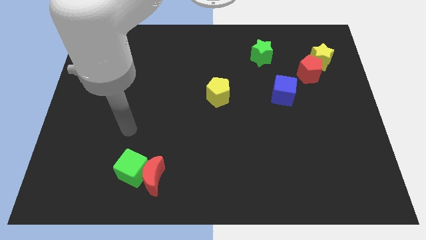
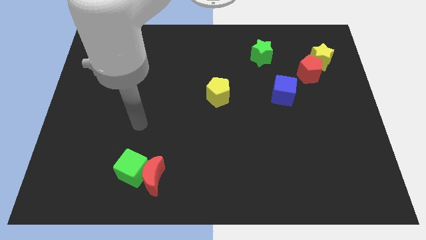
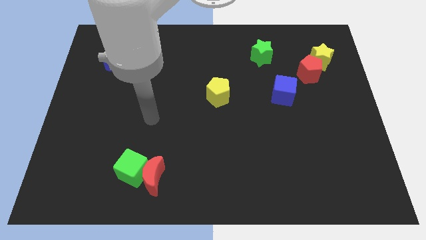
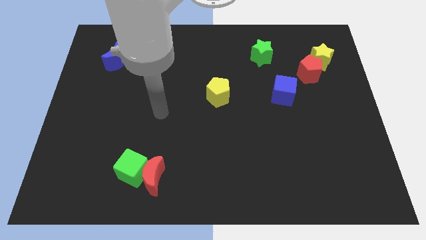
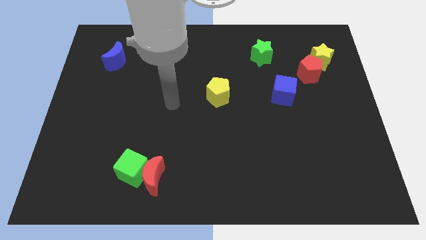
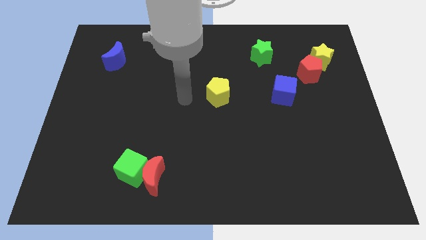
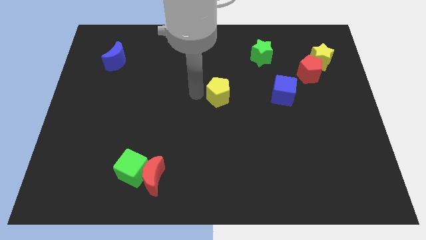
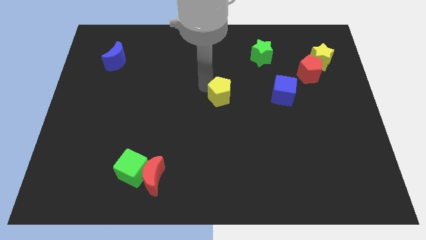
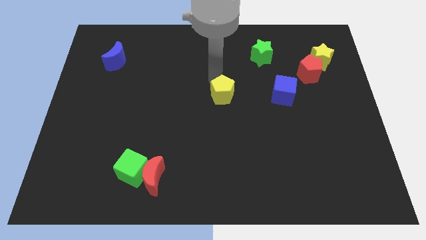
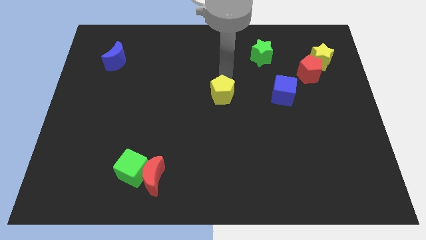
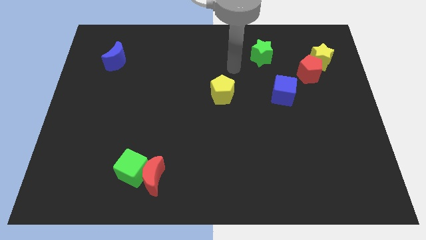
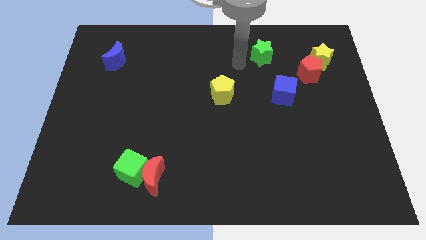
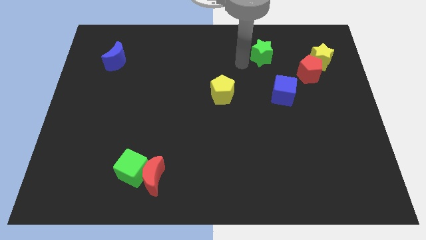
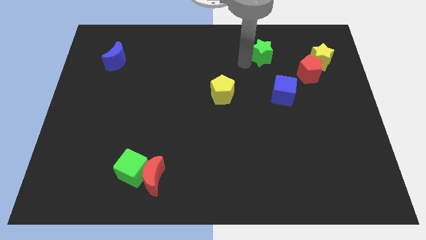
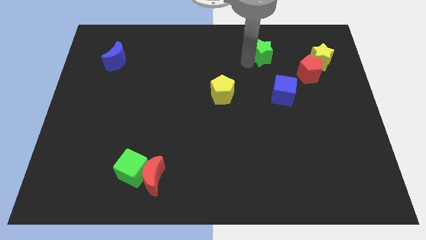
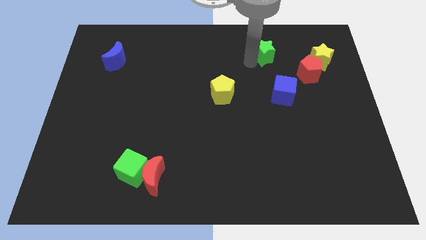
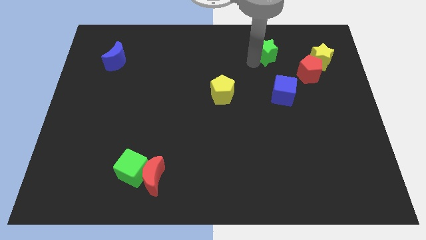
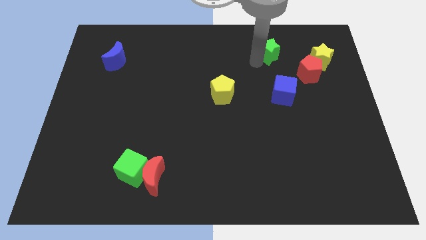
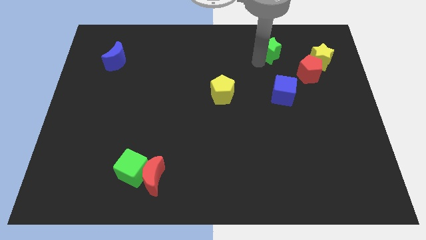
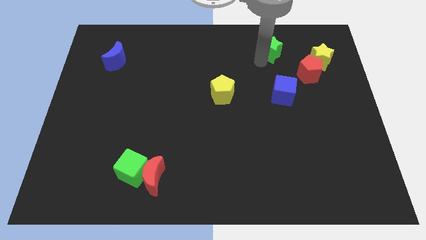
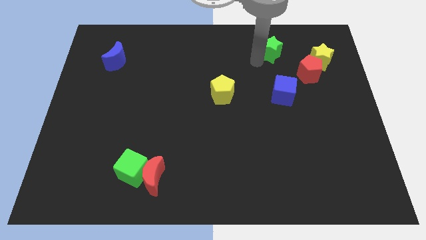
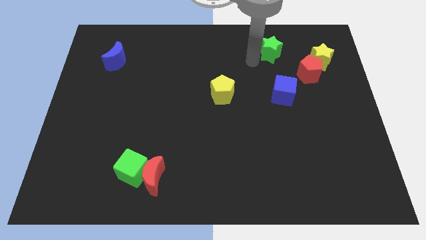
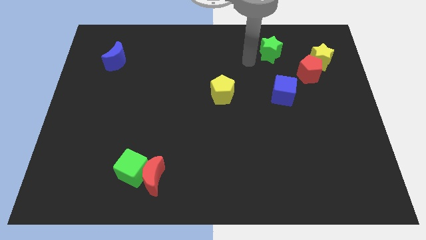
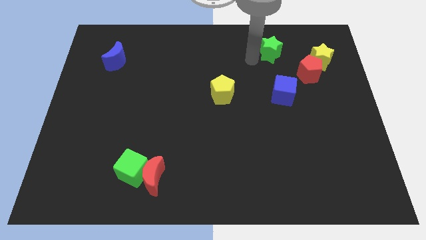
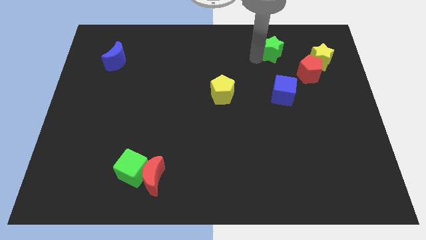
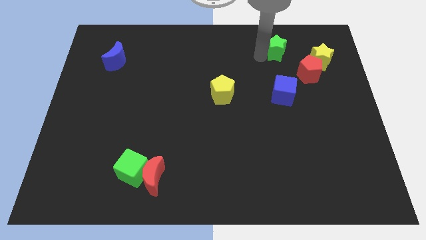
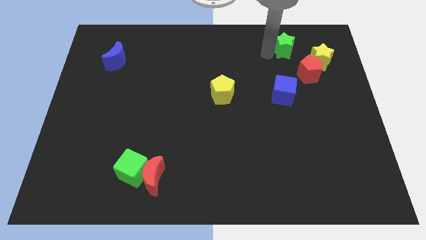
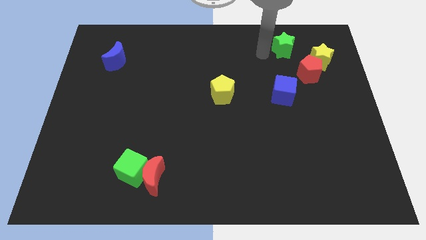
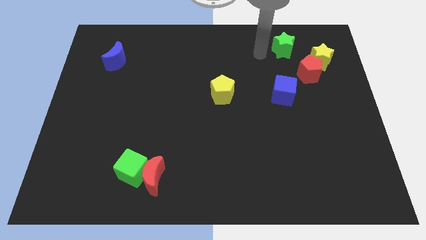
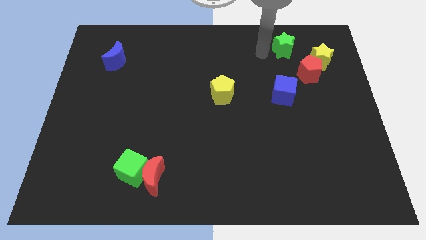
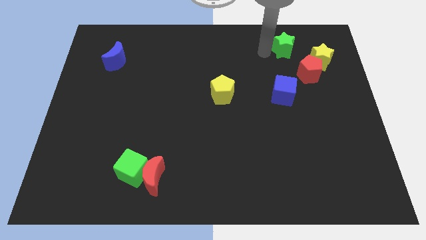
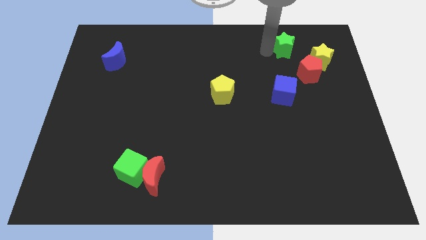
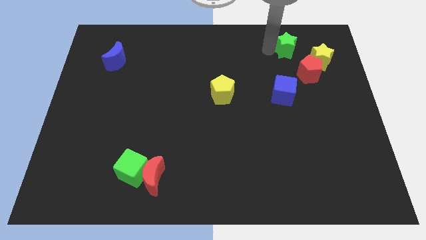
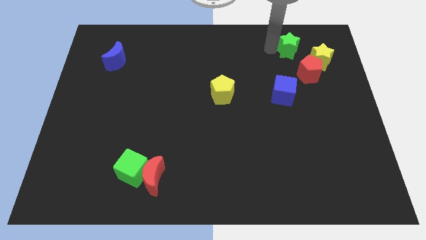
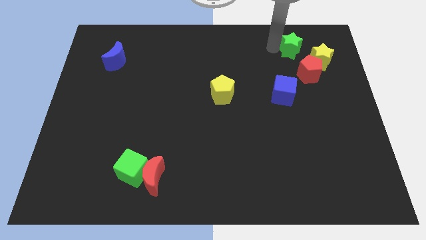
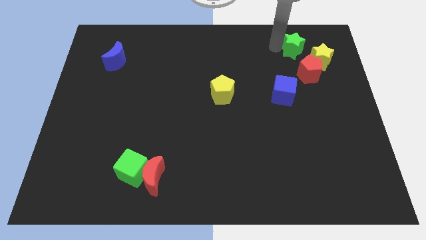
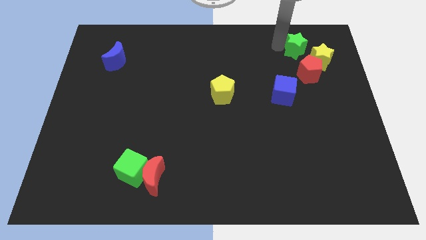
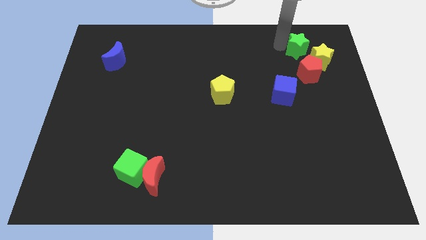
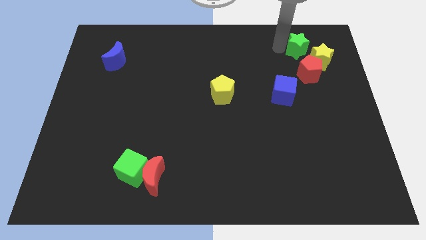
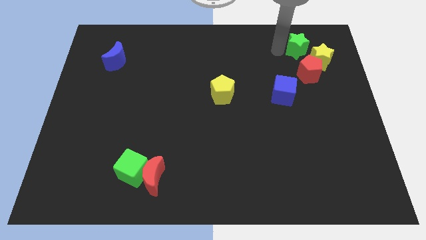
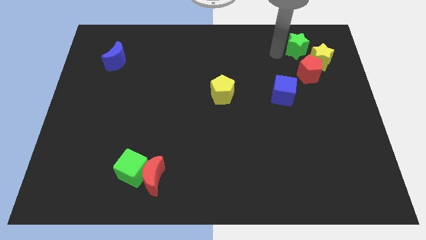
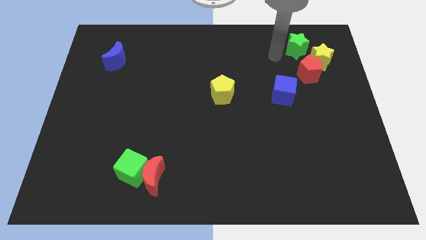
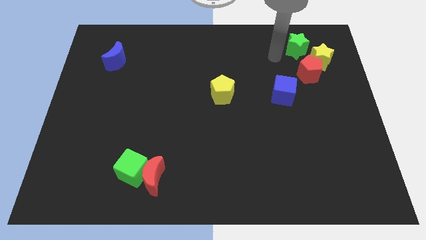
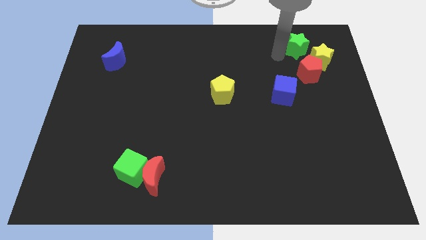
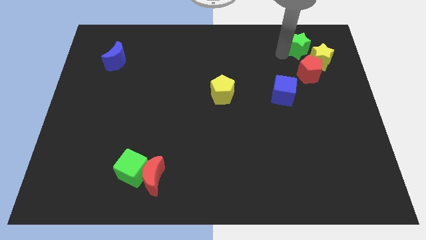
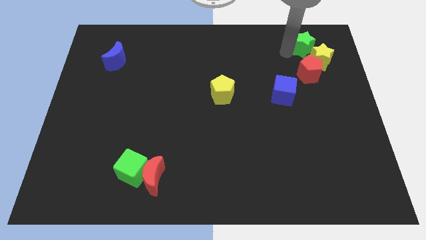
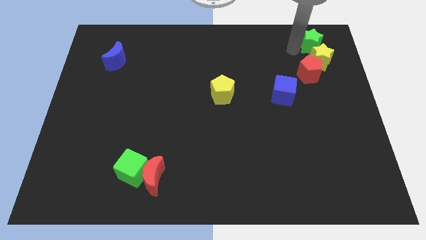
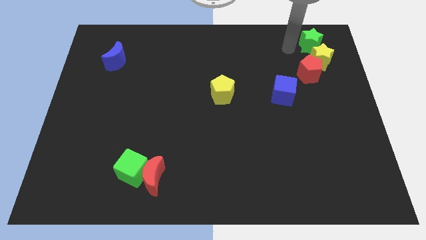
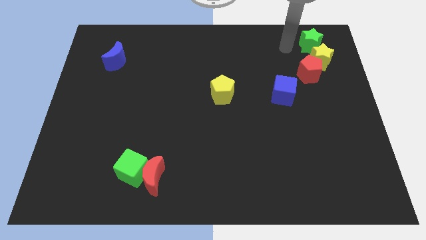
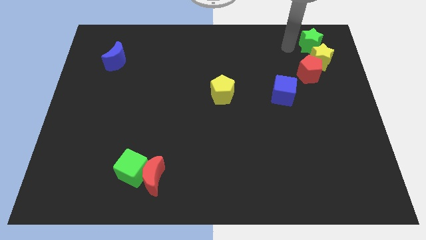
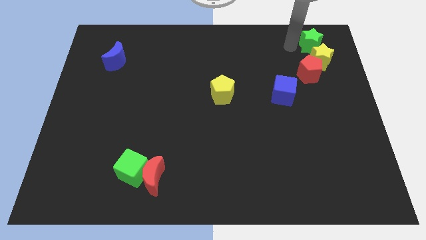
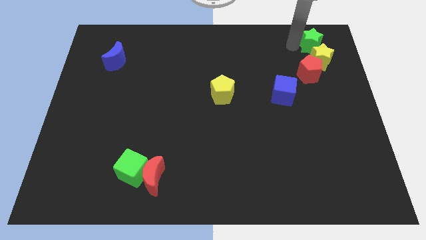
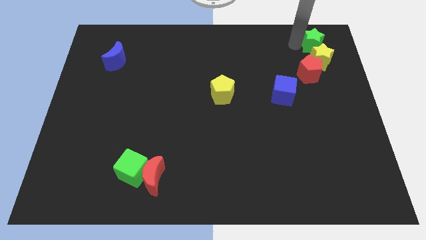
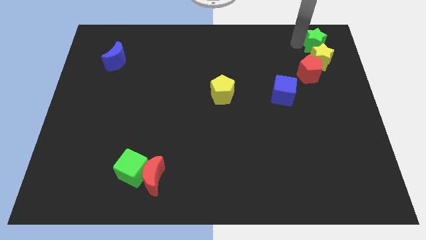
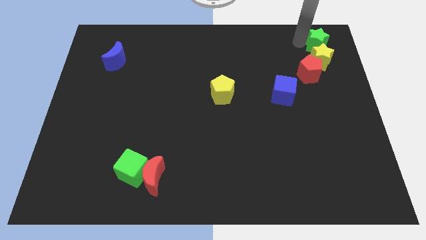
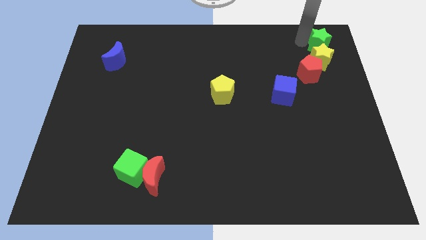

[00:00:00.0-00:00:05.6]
push the green star to the upper right corner

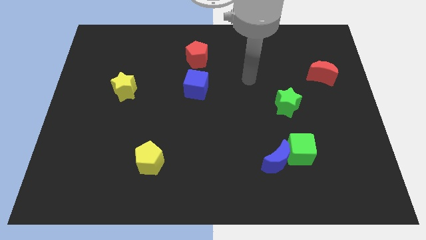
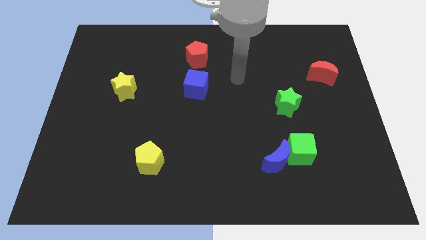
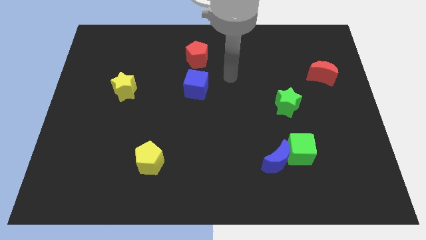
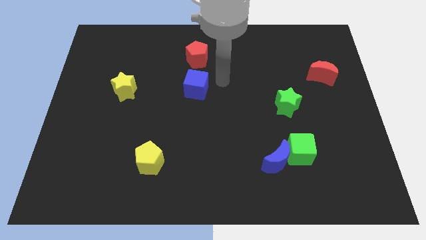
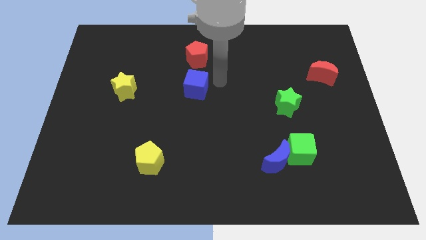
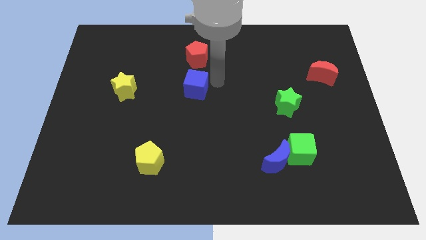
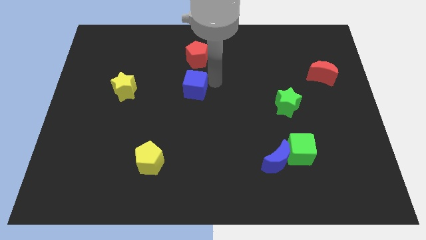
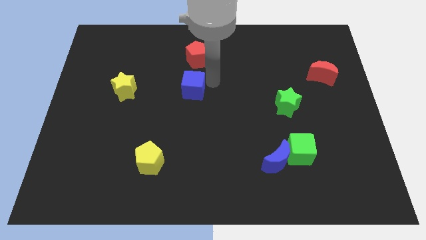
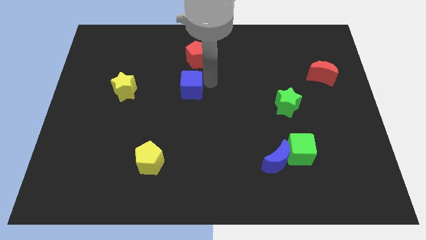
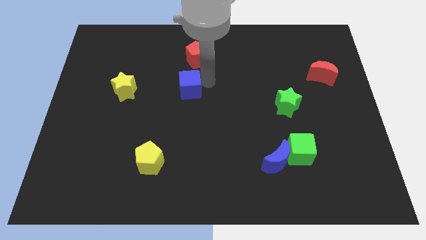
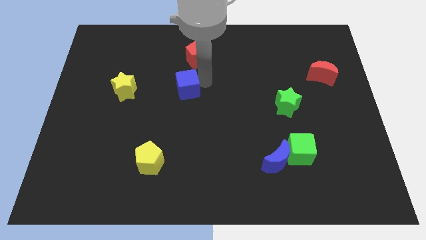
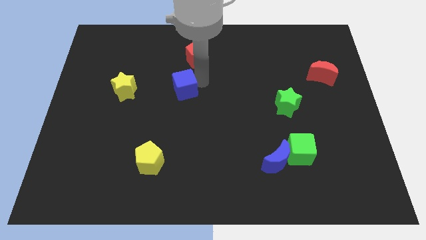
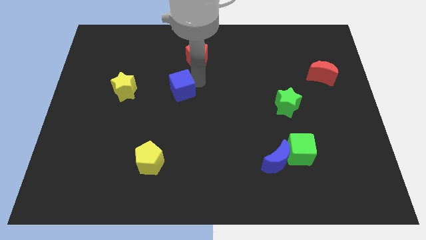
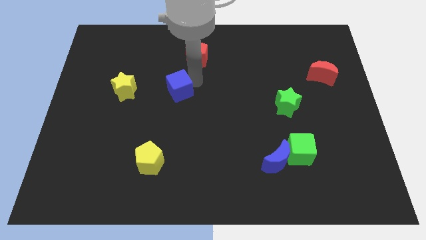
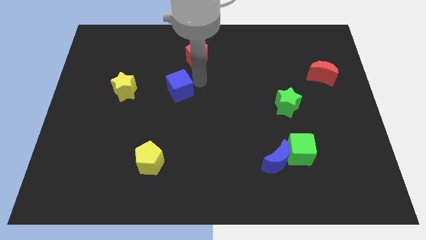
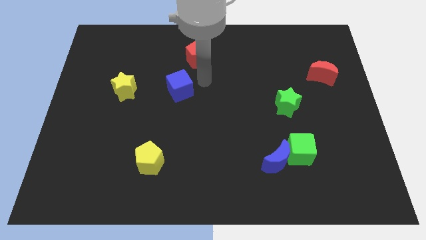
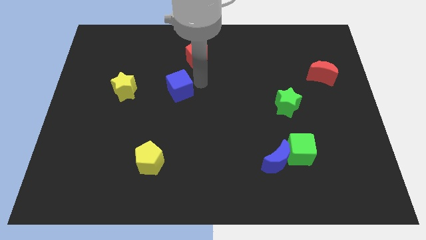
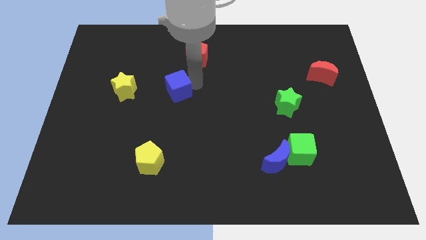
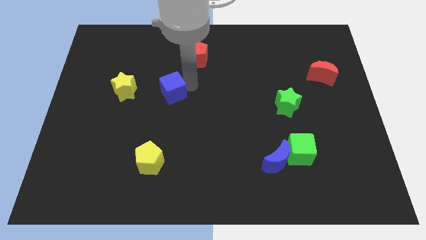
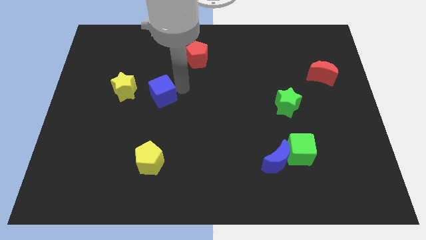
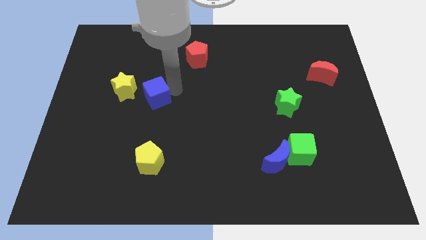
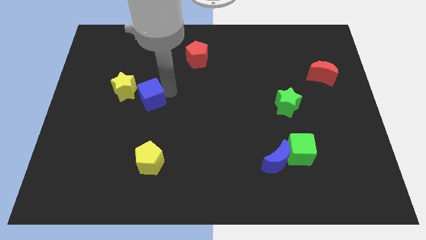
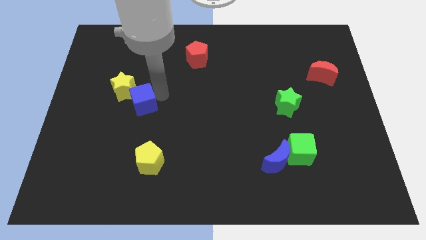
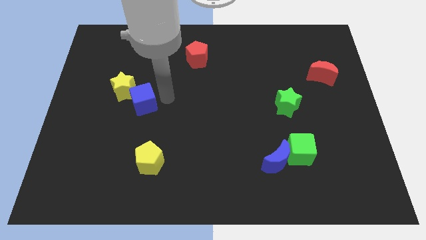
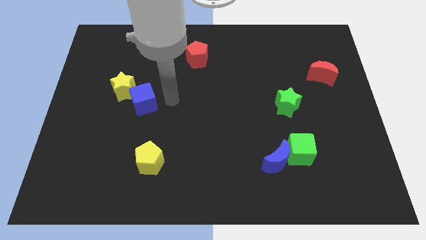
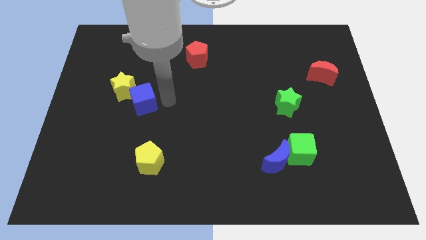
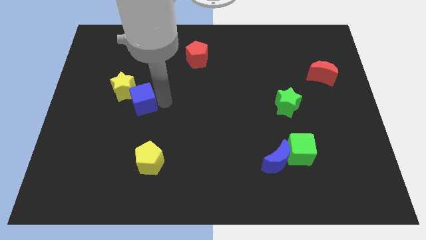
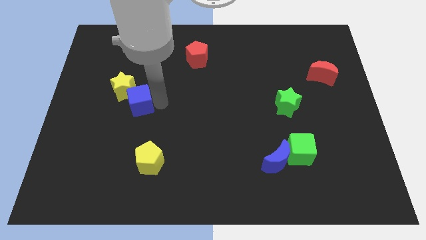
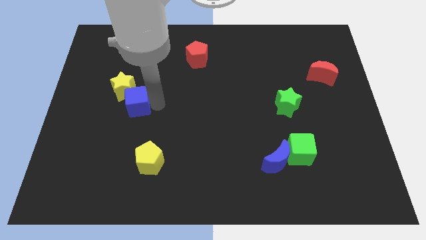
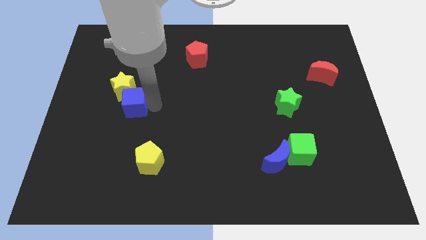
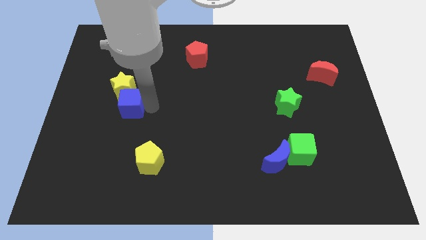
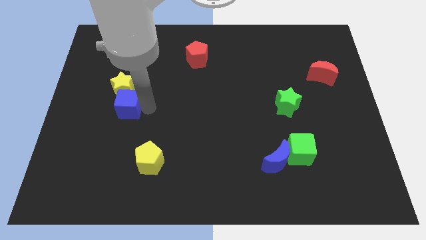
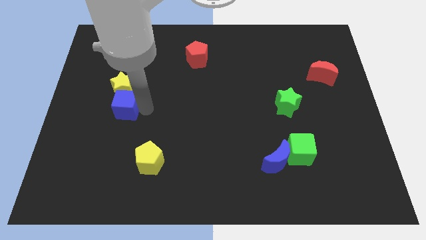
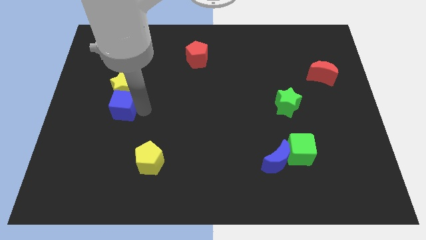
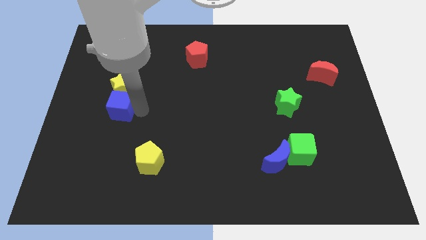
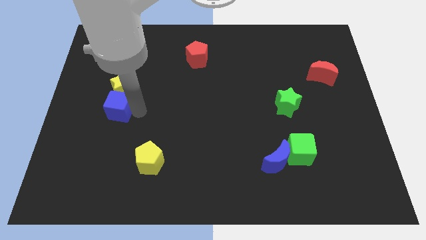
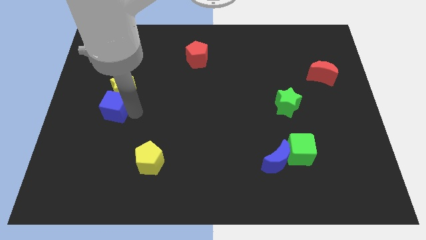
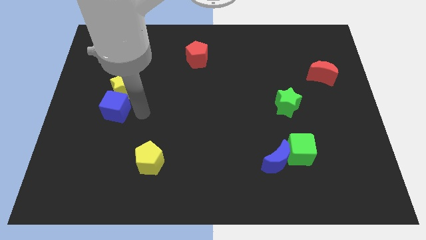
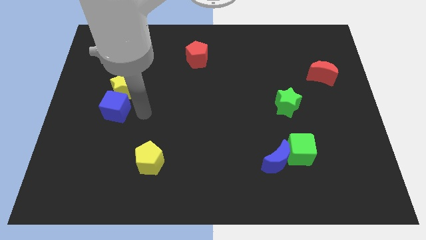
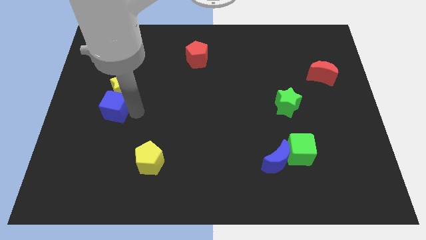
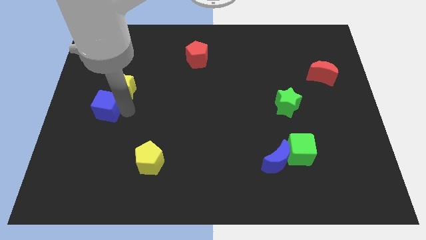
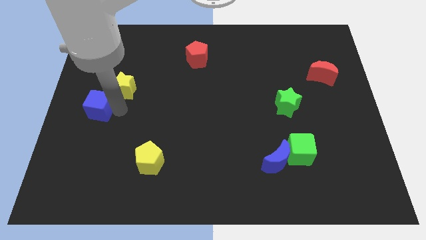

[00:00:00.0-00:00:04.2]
move the blue cube to the left side
